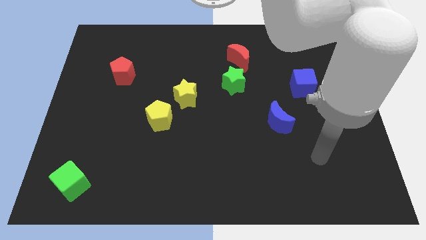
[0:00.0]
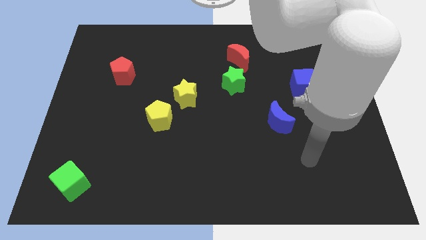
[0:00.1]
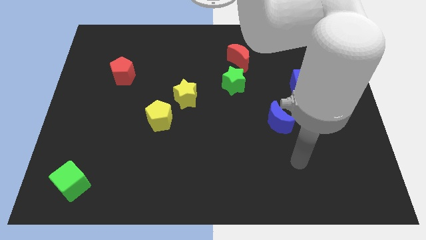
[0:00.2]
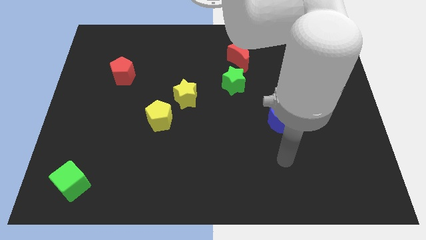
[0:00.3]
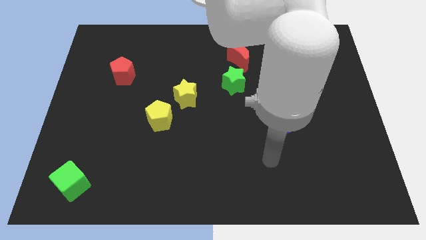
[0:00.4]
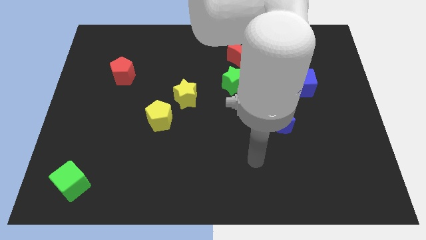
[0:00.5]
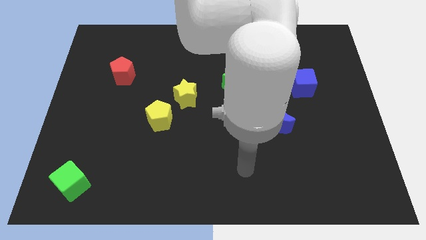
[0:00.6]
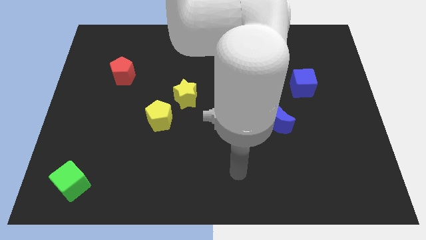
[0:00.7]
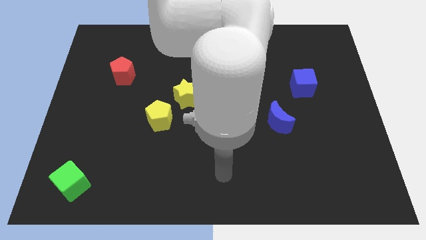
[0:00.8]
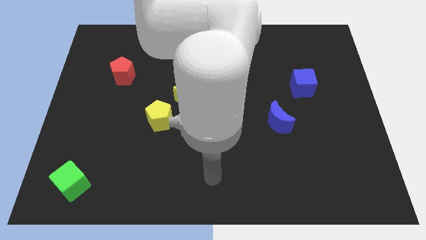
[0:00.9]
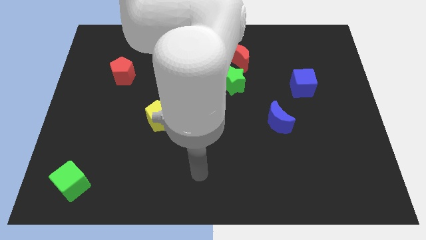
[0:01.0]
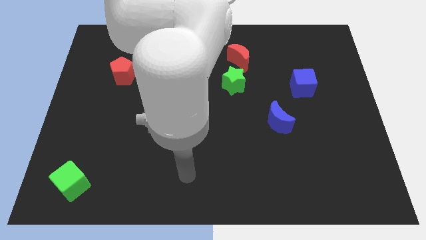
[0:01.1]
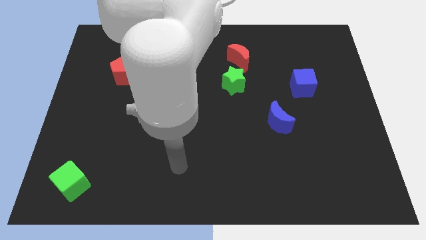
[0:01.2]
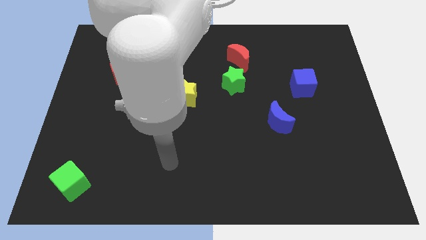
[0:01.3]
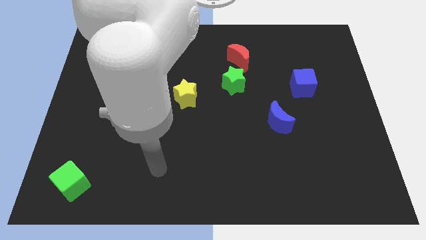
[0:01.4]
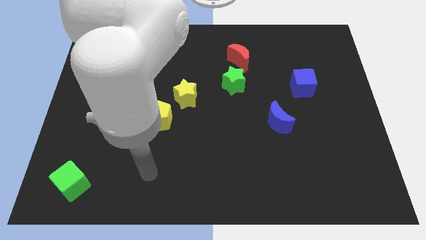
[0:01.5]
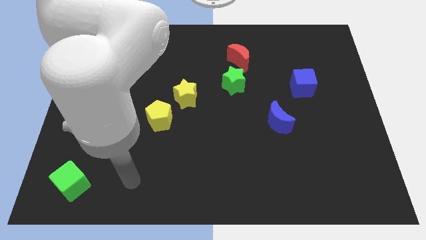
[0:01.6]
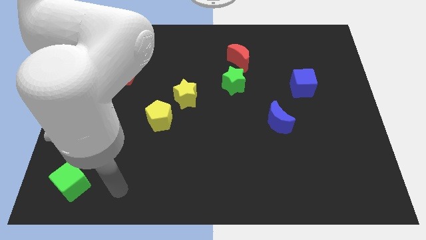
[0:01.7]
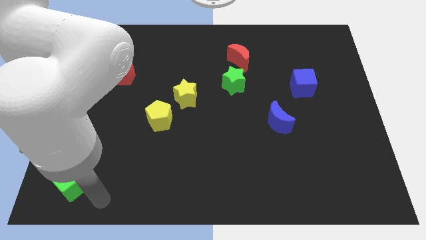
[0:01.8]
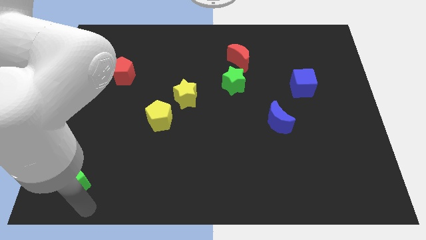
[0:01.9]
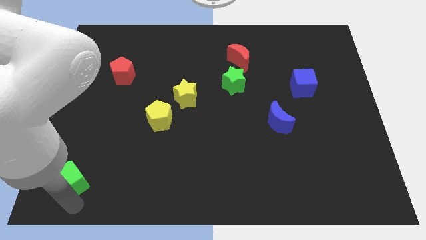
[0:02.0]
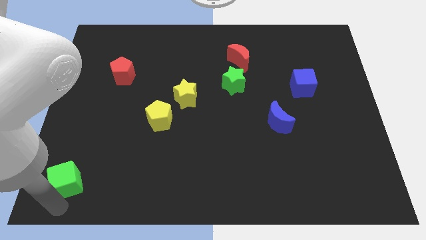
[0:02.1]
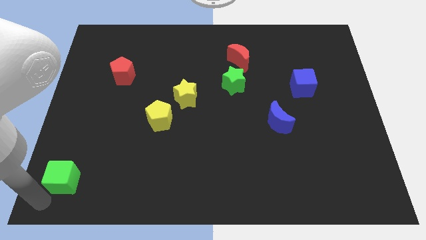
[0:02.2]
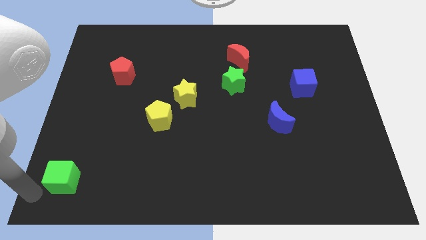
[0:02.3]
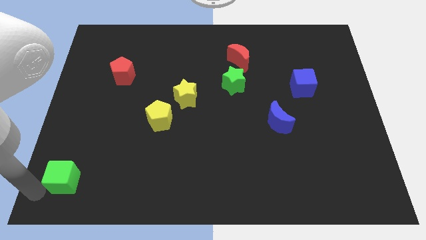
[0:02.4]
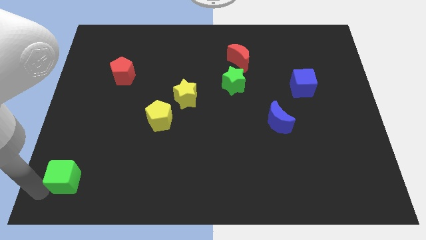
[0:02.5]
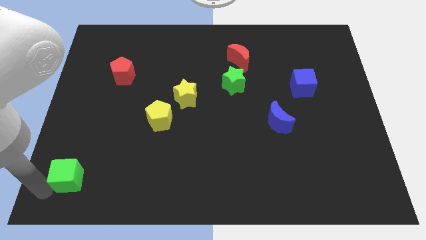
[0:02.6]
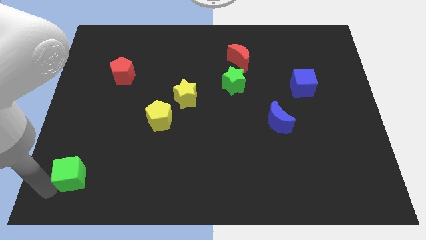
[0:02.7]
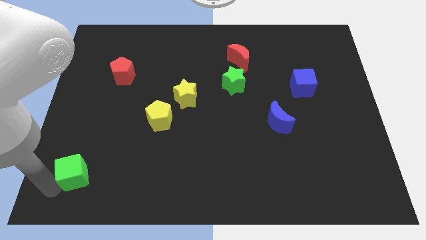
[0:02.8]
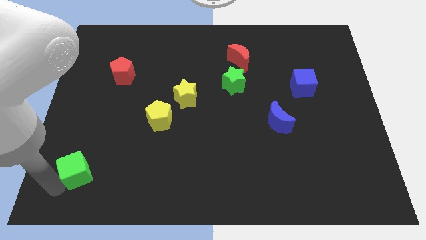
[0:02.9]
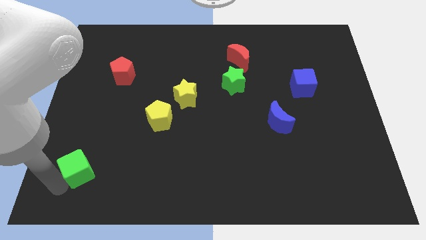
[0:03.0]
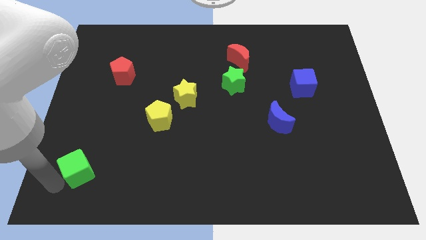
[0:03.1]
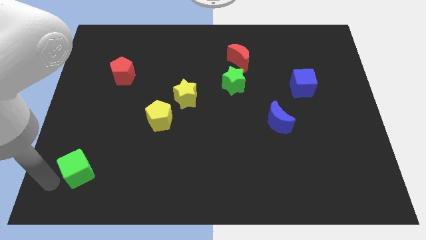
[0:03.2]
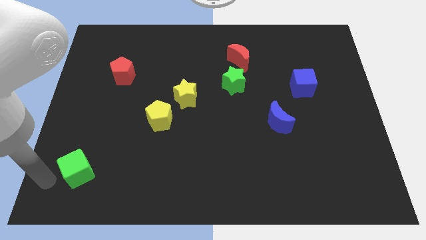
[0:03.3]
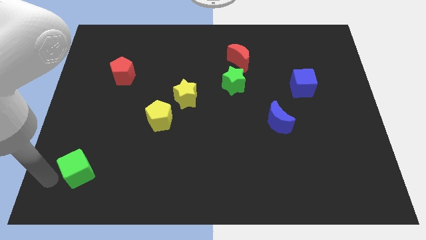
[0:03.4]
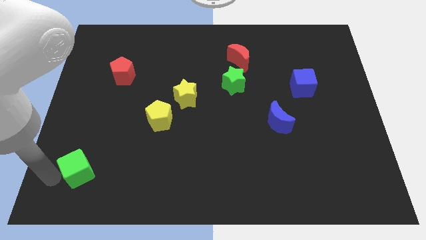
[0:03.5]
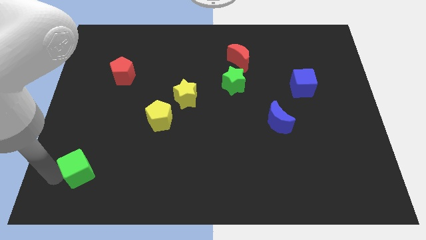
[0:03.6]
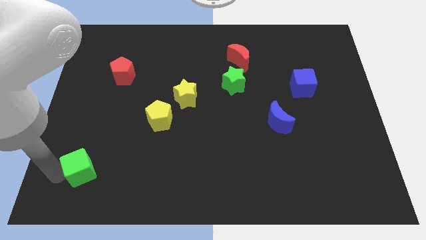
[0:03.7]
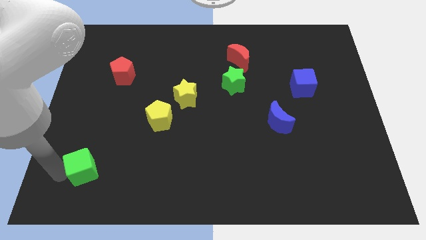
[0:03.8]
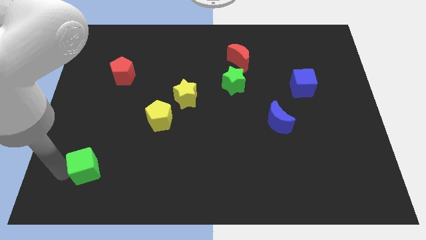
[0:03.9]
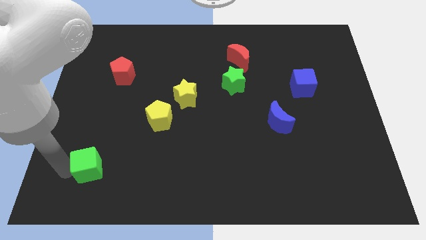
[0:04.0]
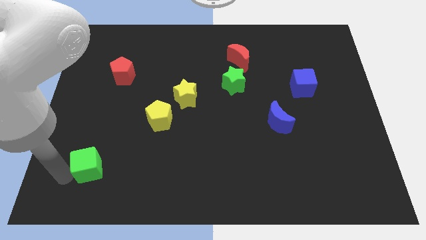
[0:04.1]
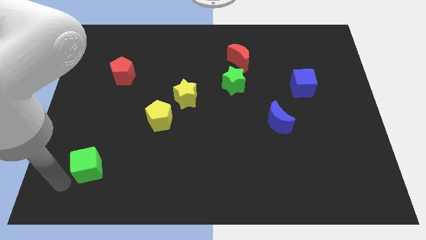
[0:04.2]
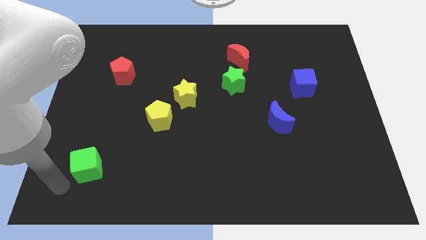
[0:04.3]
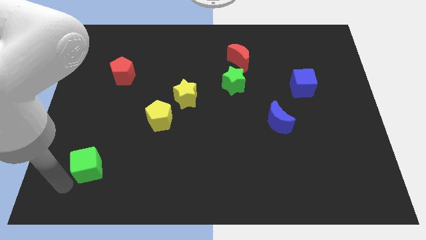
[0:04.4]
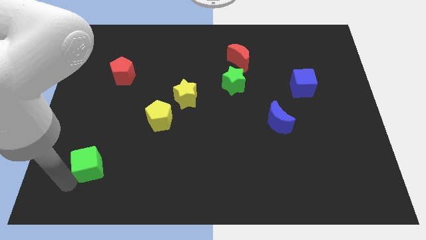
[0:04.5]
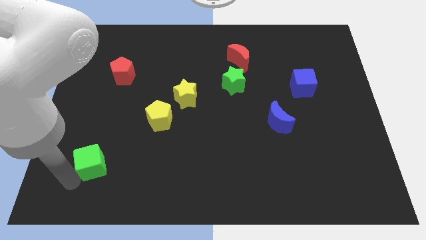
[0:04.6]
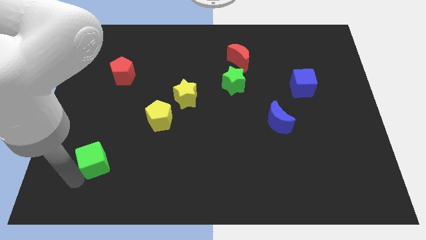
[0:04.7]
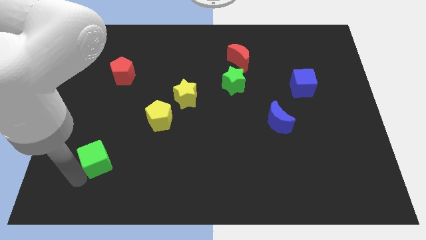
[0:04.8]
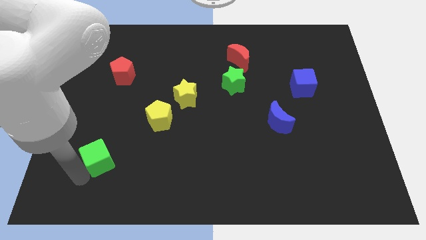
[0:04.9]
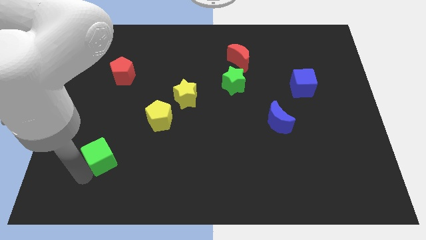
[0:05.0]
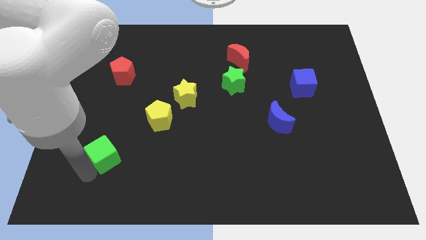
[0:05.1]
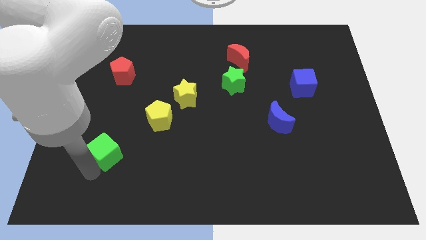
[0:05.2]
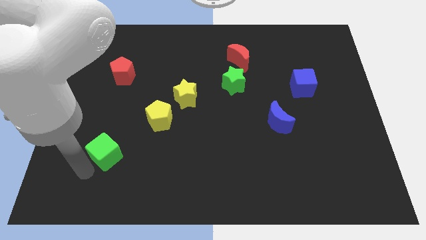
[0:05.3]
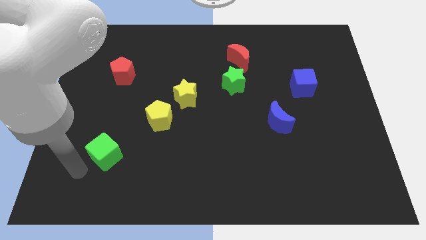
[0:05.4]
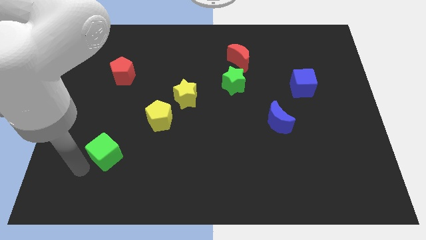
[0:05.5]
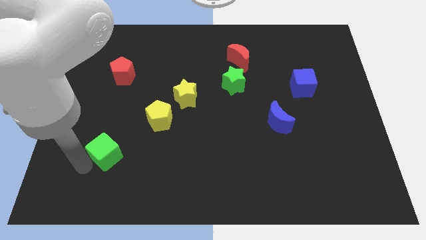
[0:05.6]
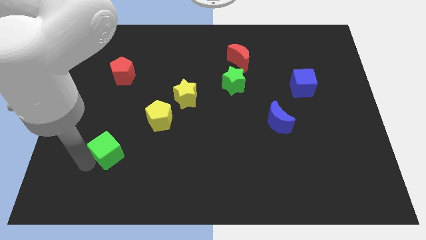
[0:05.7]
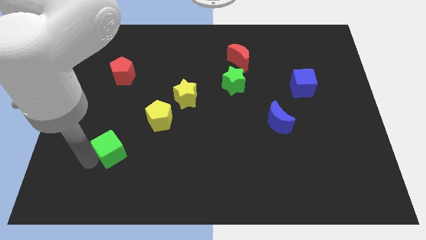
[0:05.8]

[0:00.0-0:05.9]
move the green cube to the bottom left side of the yellow pentagon

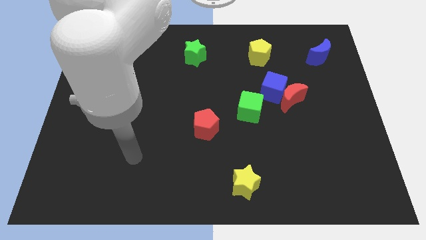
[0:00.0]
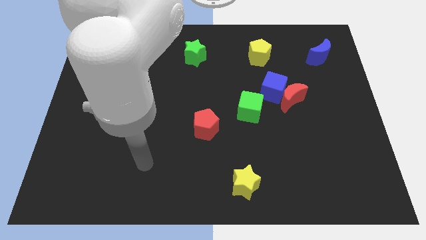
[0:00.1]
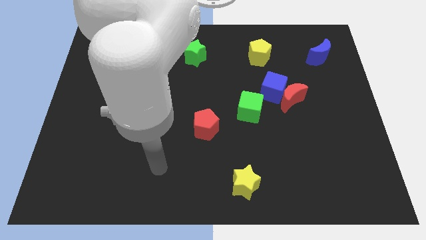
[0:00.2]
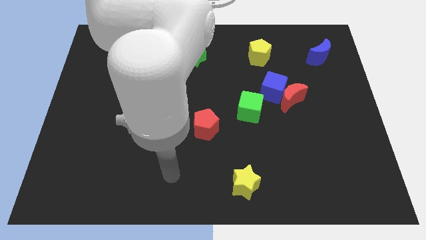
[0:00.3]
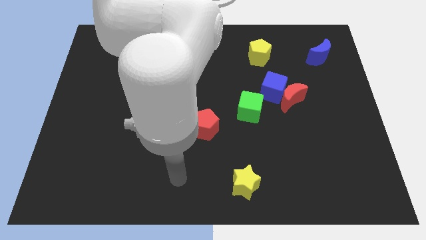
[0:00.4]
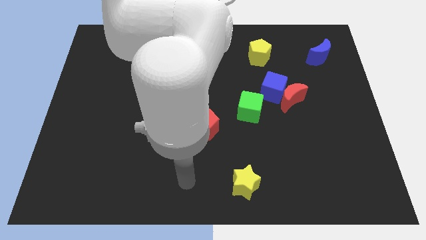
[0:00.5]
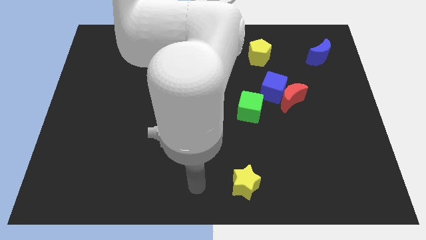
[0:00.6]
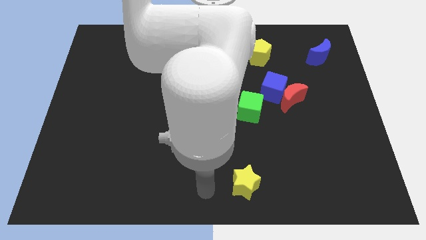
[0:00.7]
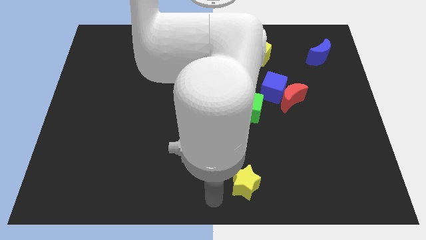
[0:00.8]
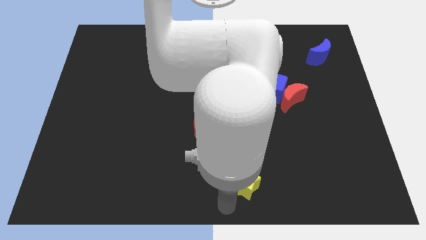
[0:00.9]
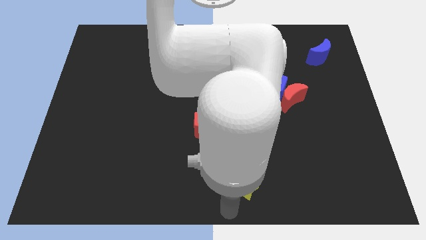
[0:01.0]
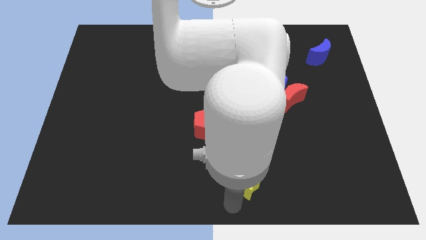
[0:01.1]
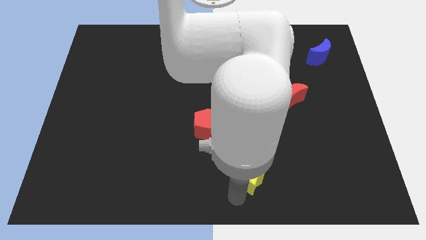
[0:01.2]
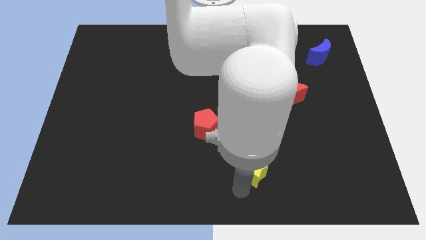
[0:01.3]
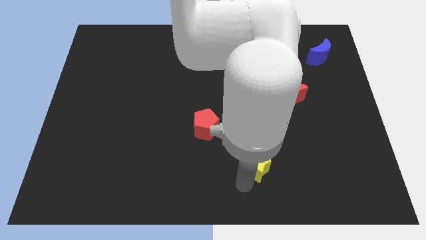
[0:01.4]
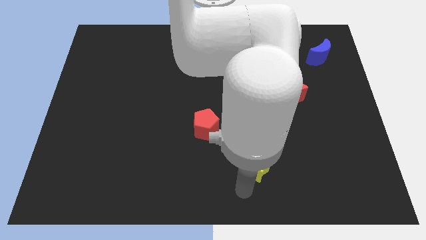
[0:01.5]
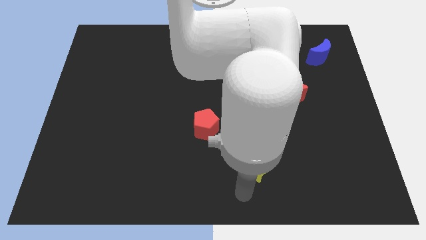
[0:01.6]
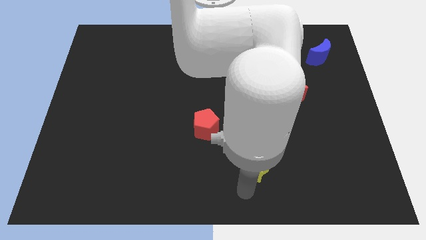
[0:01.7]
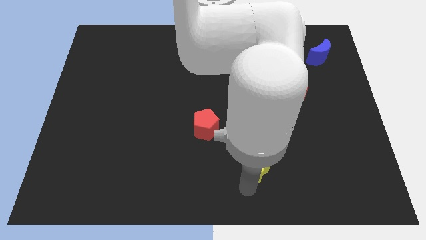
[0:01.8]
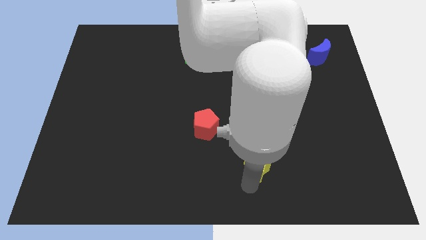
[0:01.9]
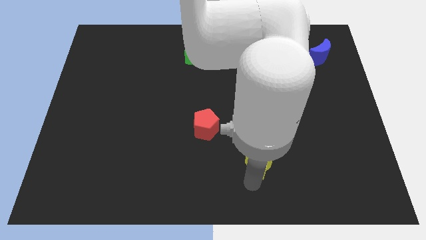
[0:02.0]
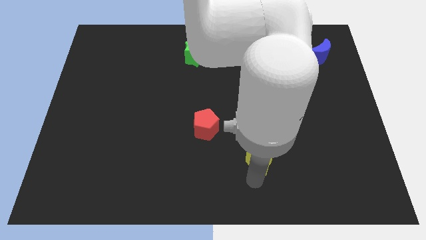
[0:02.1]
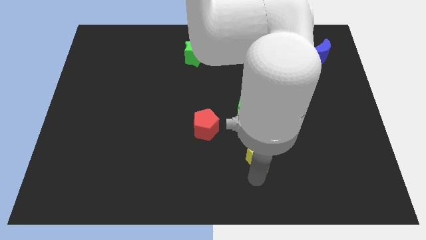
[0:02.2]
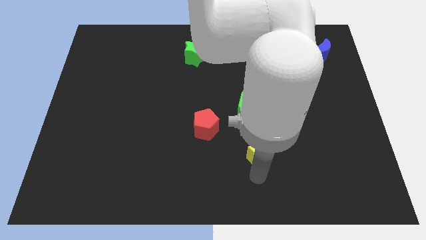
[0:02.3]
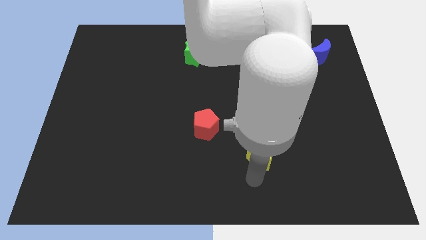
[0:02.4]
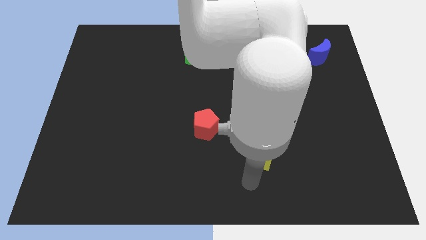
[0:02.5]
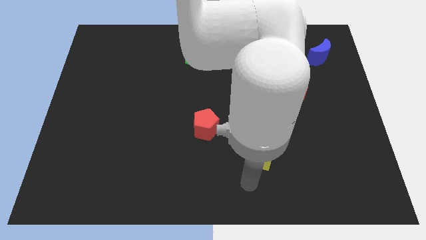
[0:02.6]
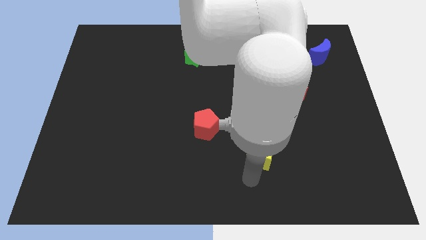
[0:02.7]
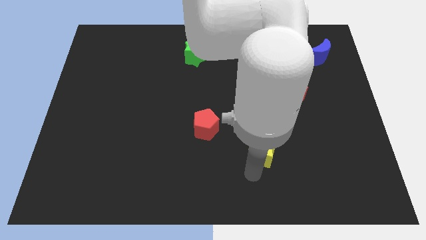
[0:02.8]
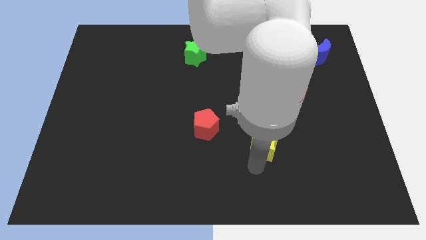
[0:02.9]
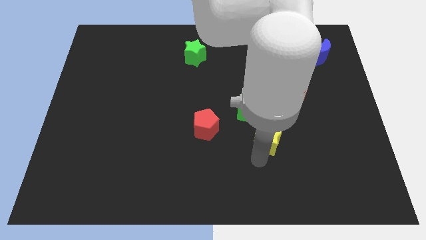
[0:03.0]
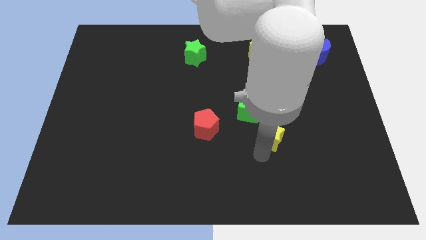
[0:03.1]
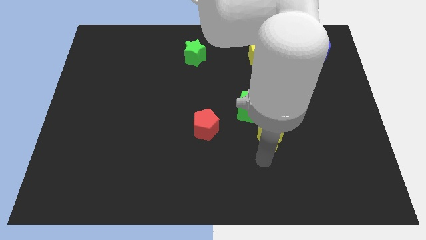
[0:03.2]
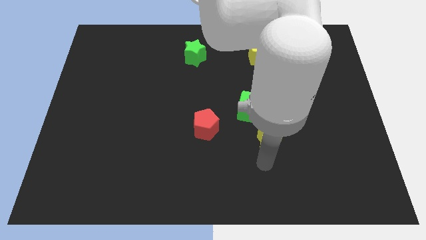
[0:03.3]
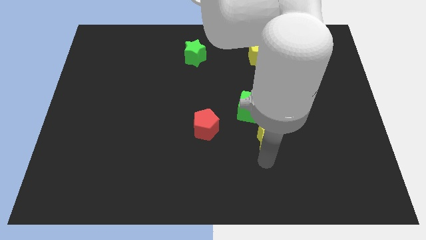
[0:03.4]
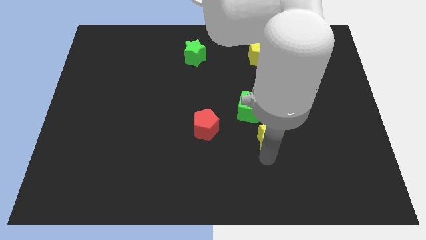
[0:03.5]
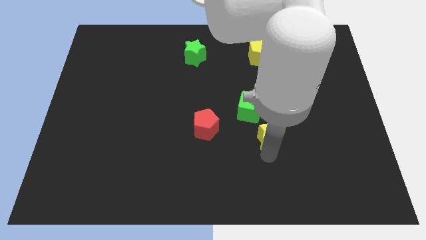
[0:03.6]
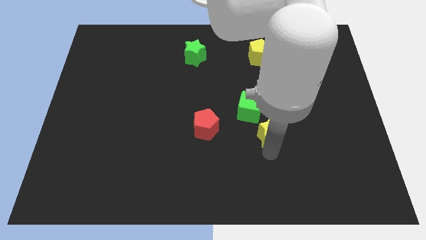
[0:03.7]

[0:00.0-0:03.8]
push the yellow star to the bottom left side of the red moon
